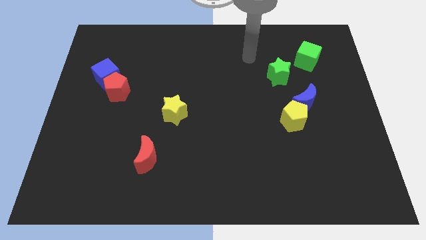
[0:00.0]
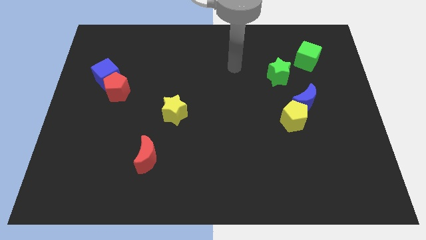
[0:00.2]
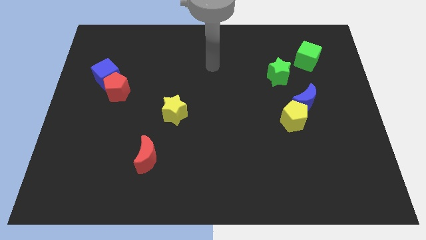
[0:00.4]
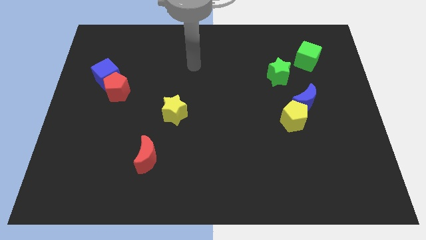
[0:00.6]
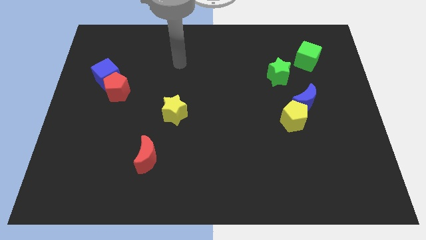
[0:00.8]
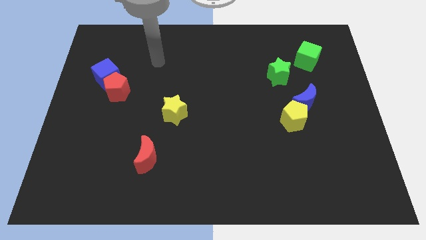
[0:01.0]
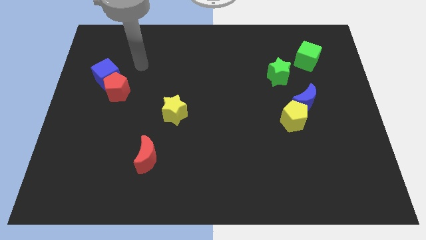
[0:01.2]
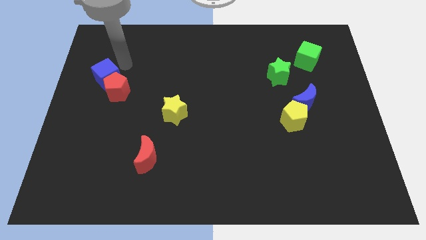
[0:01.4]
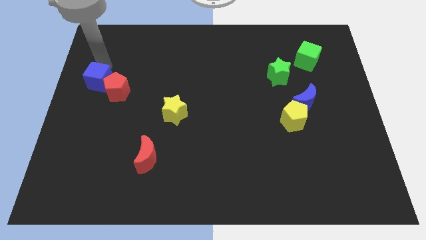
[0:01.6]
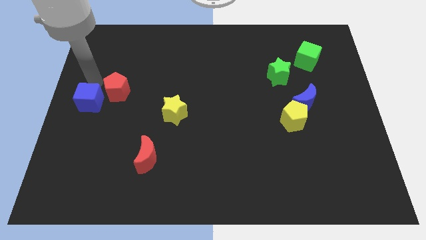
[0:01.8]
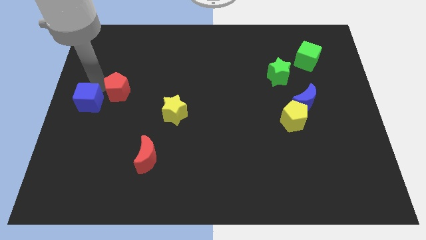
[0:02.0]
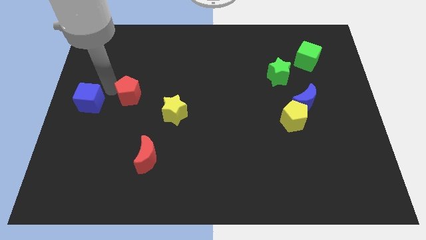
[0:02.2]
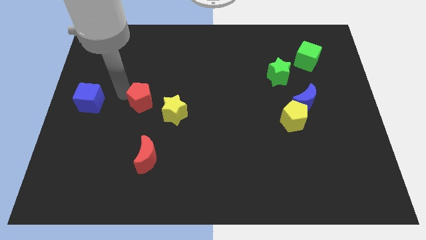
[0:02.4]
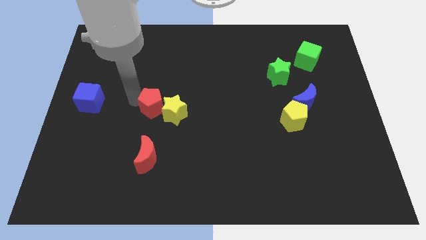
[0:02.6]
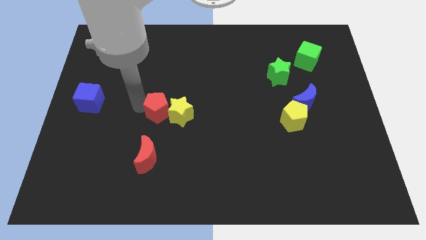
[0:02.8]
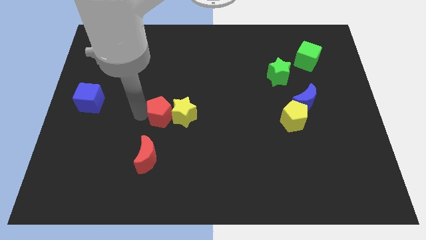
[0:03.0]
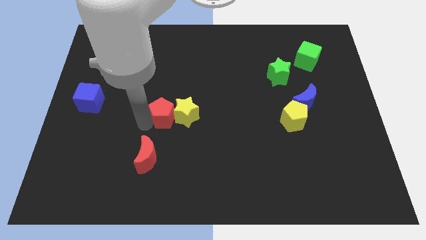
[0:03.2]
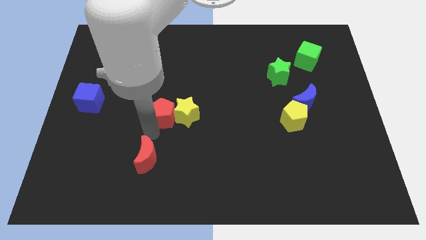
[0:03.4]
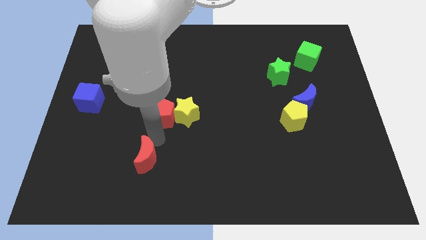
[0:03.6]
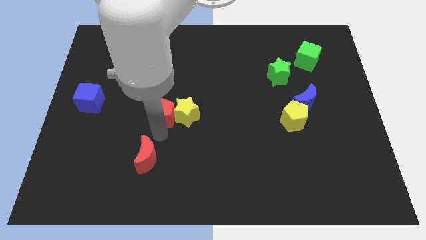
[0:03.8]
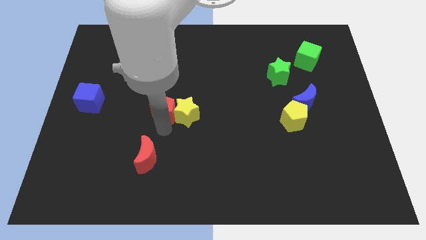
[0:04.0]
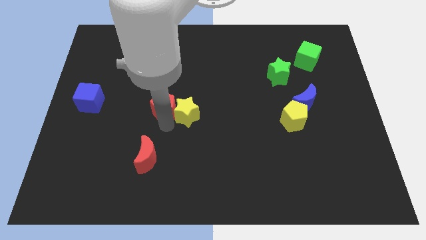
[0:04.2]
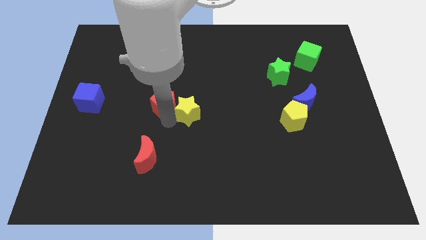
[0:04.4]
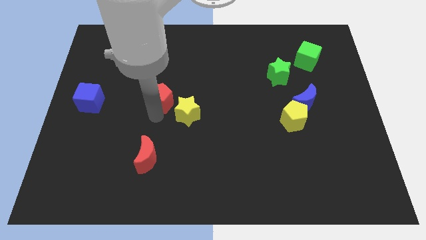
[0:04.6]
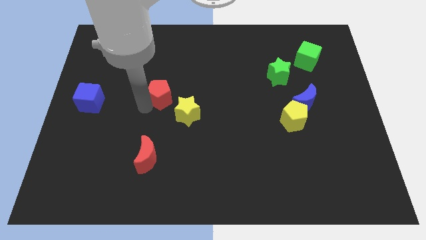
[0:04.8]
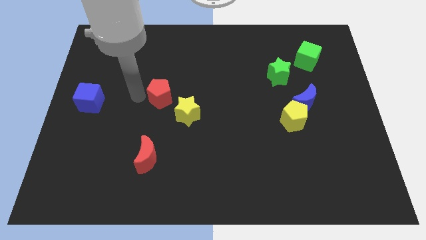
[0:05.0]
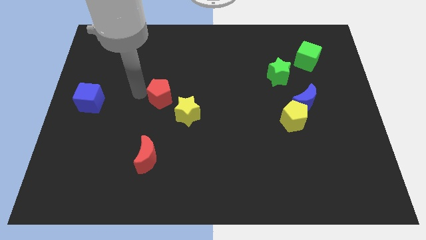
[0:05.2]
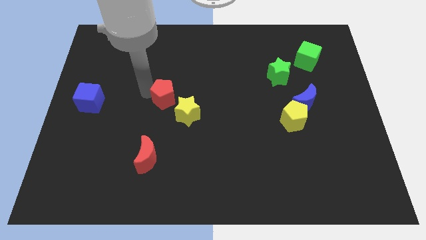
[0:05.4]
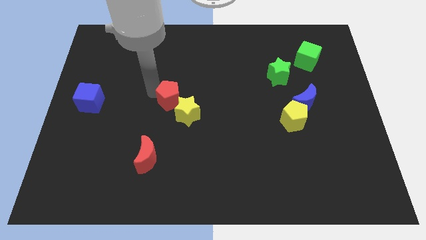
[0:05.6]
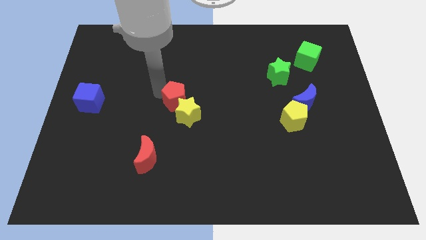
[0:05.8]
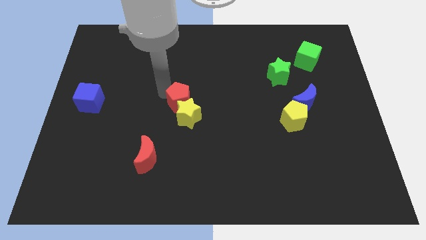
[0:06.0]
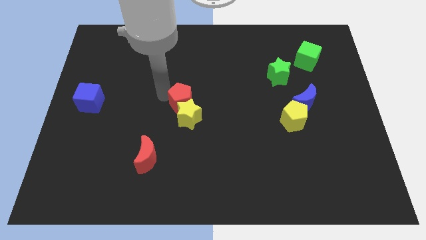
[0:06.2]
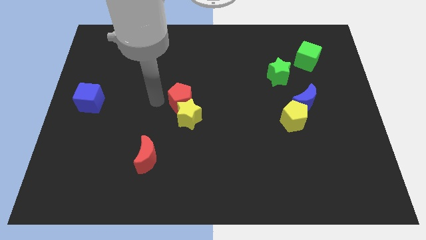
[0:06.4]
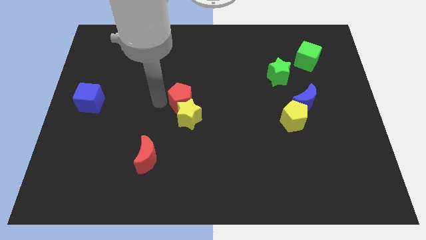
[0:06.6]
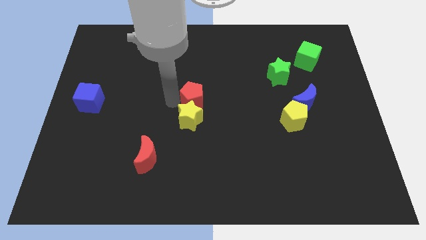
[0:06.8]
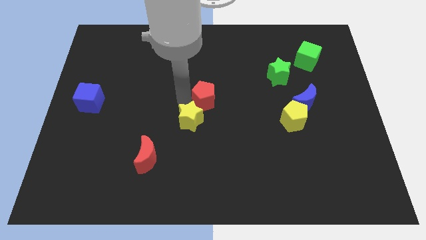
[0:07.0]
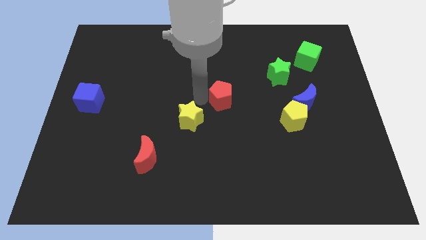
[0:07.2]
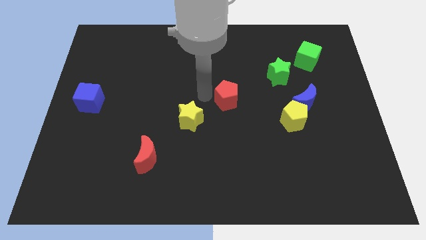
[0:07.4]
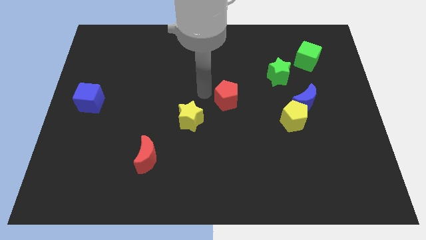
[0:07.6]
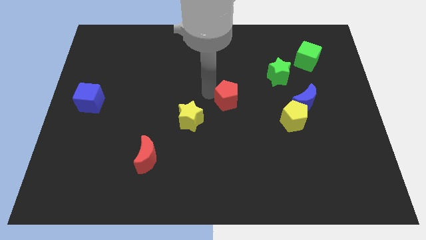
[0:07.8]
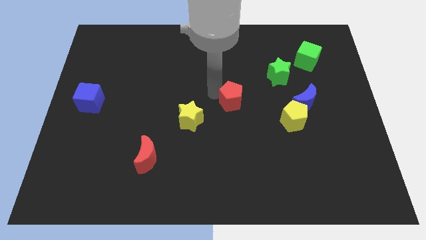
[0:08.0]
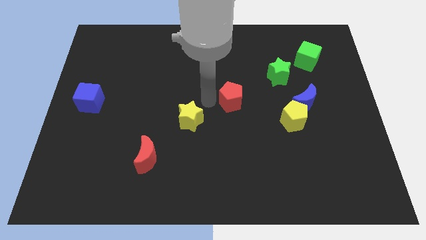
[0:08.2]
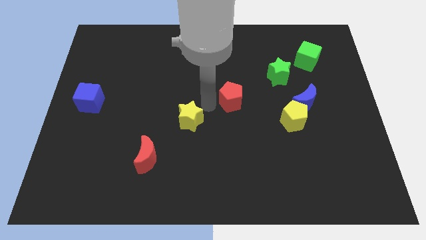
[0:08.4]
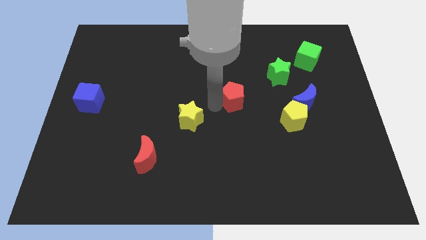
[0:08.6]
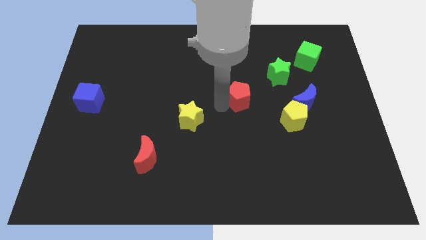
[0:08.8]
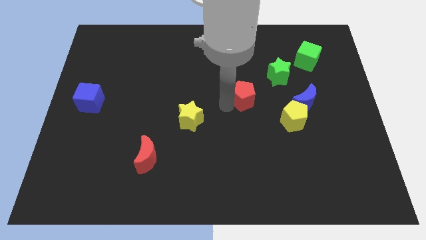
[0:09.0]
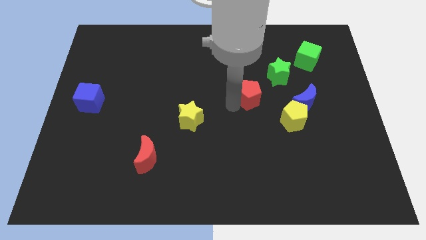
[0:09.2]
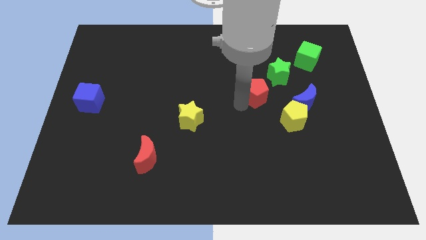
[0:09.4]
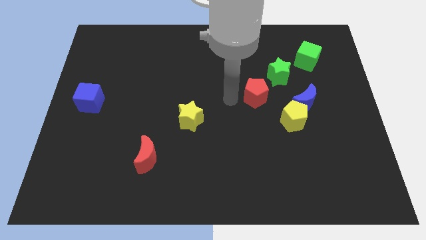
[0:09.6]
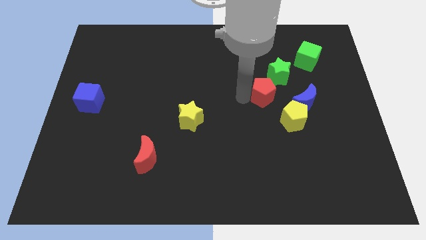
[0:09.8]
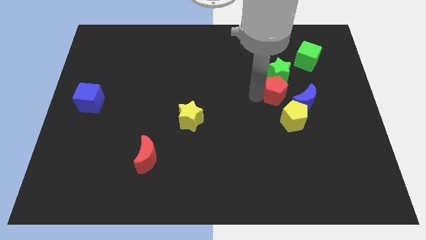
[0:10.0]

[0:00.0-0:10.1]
push the red pentagon to the bottom right of the green star

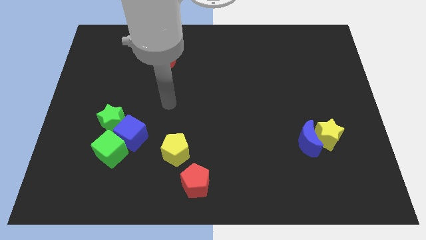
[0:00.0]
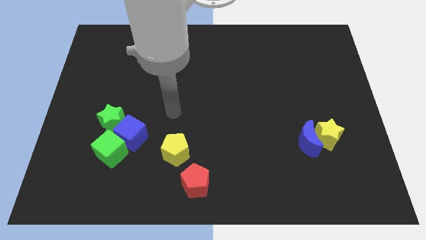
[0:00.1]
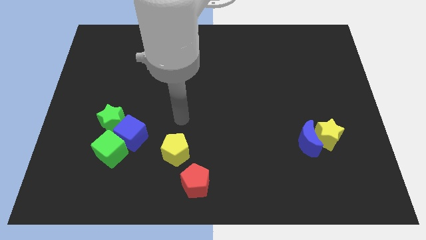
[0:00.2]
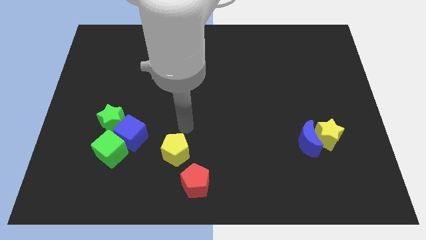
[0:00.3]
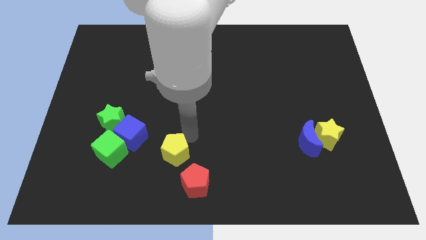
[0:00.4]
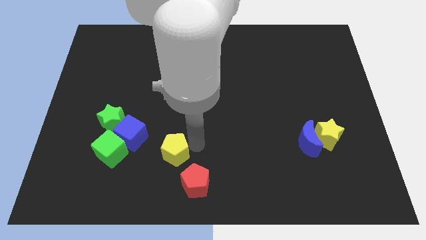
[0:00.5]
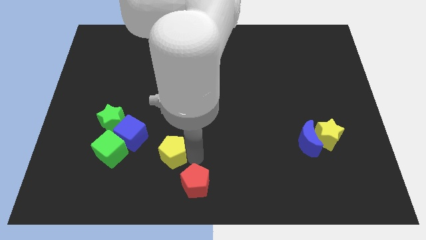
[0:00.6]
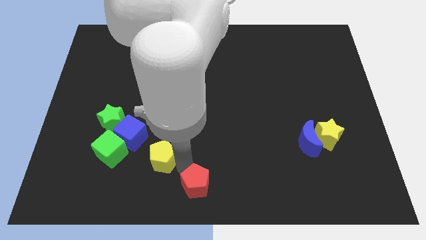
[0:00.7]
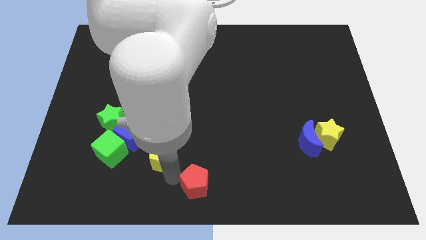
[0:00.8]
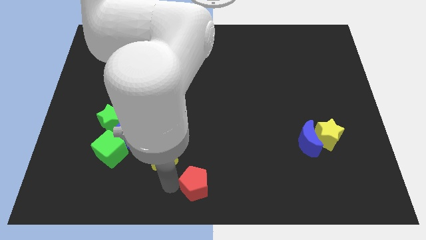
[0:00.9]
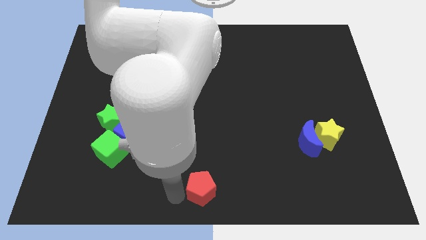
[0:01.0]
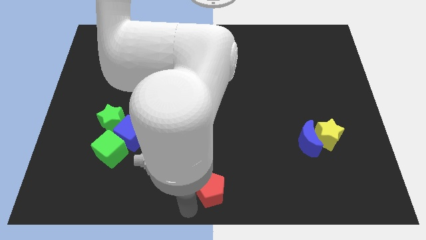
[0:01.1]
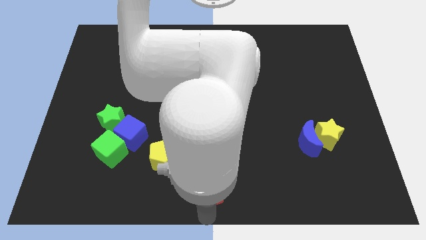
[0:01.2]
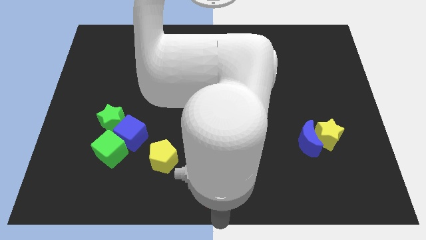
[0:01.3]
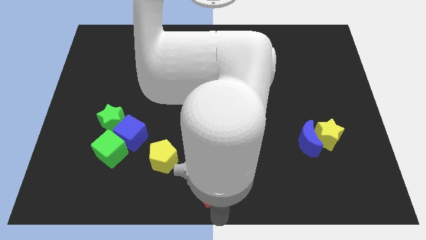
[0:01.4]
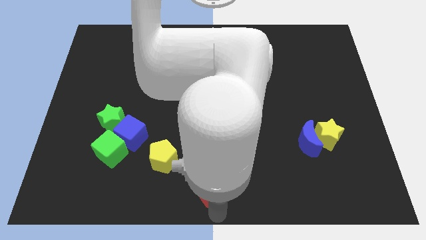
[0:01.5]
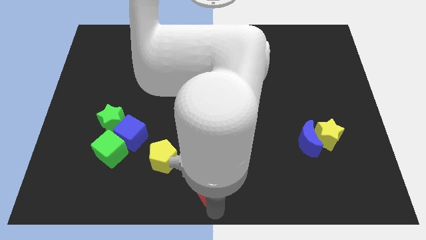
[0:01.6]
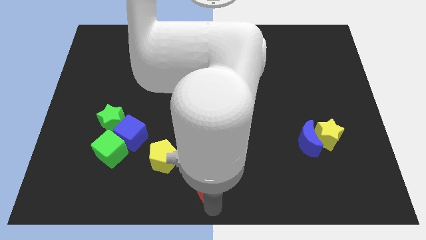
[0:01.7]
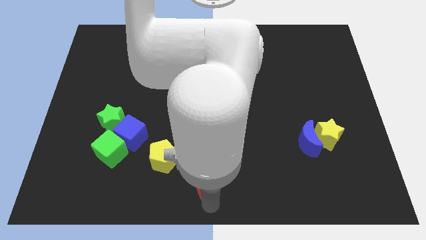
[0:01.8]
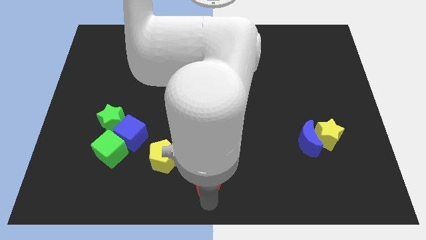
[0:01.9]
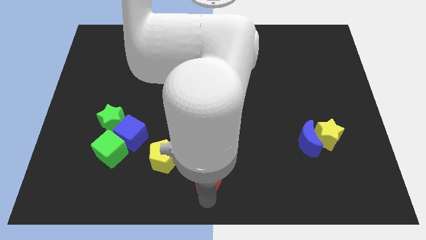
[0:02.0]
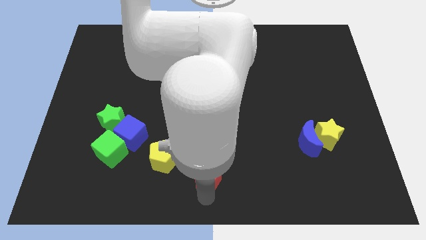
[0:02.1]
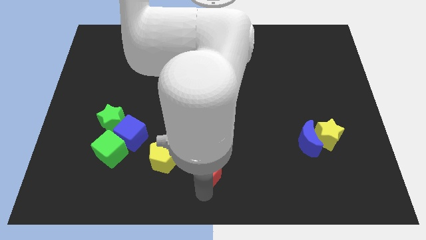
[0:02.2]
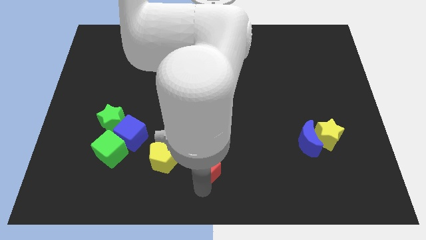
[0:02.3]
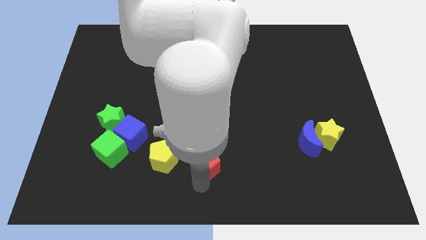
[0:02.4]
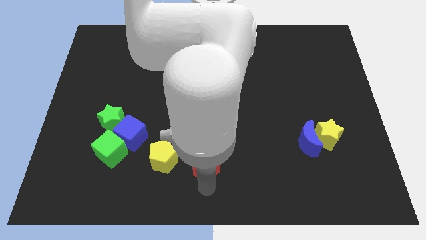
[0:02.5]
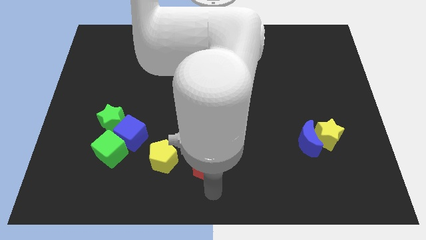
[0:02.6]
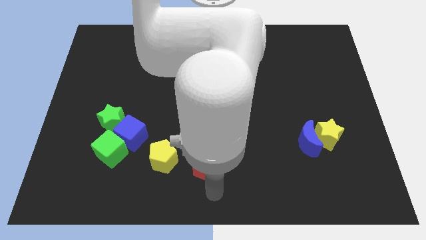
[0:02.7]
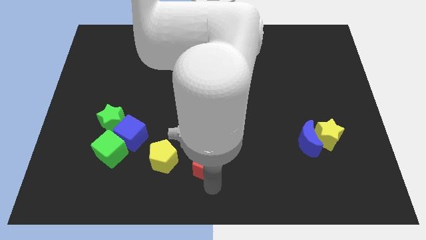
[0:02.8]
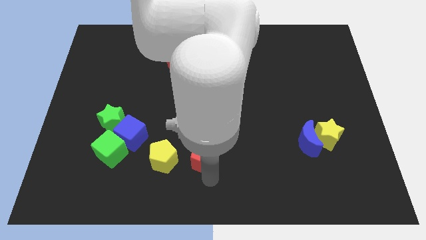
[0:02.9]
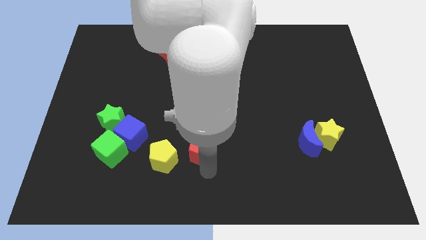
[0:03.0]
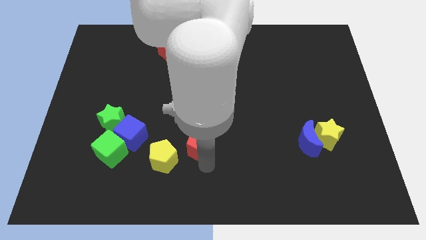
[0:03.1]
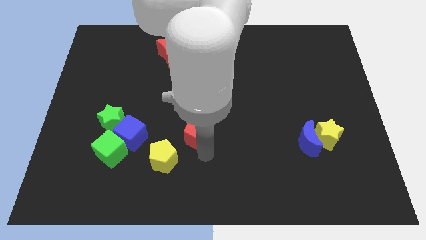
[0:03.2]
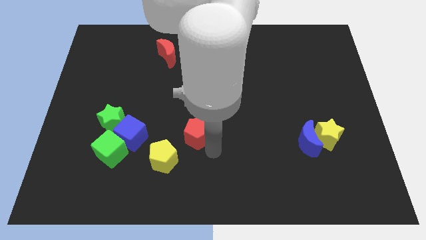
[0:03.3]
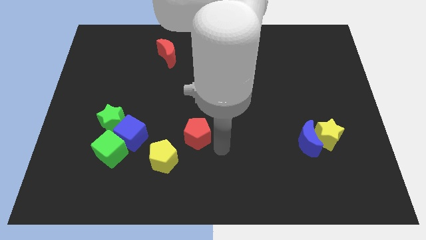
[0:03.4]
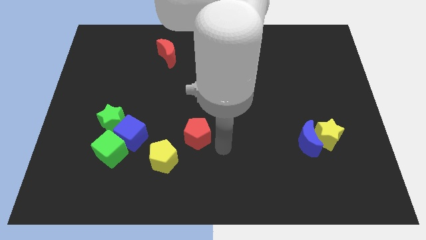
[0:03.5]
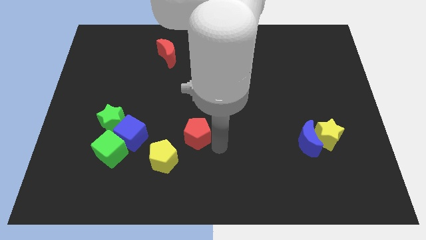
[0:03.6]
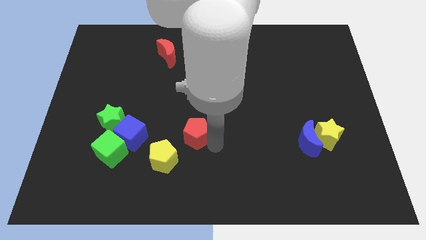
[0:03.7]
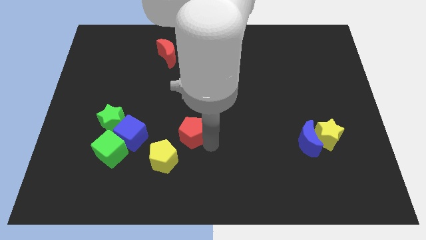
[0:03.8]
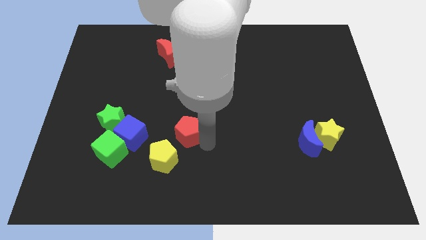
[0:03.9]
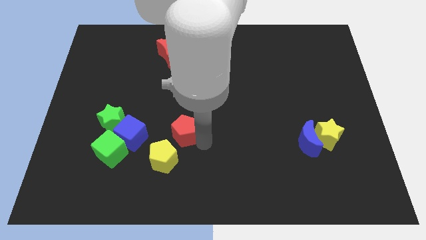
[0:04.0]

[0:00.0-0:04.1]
slide the red pentagon to the top side of the yellow pentagon
